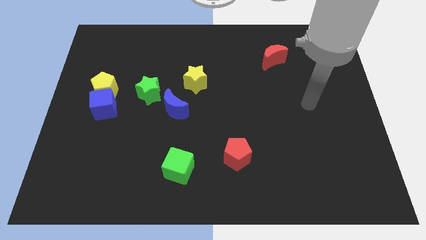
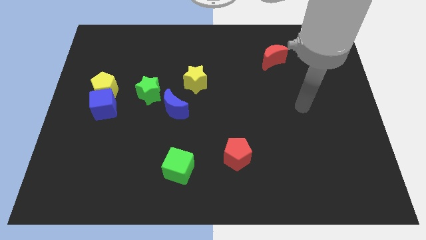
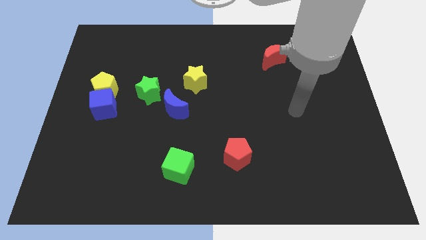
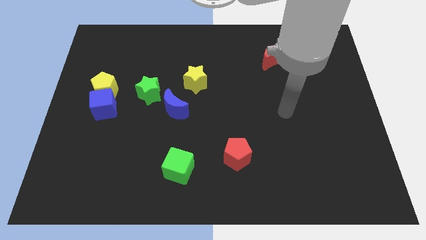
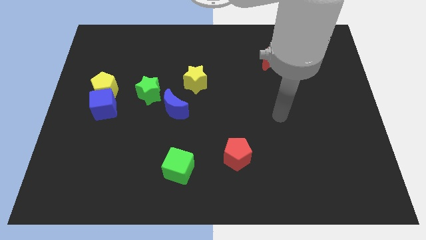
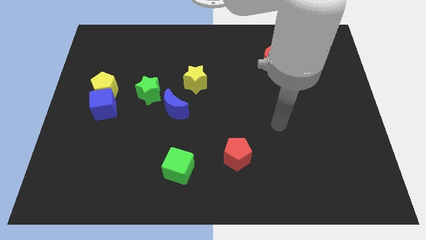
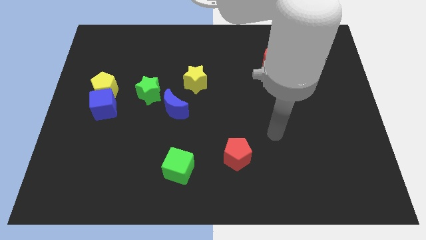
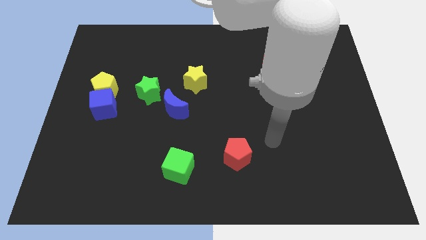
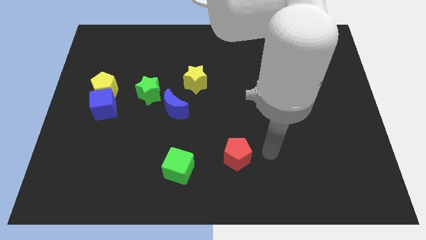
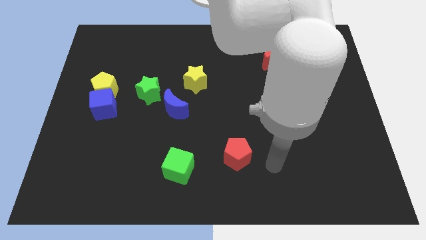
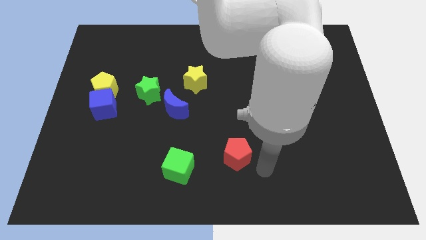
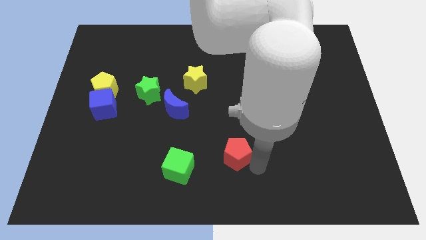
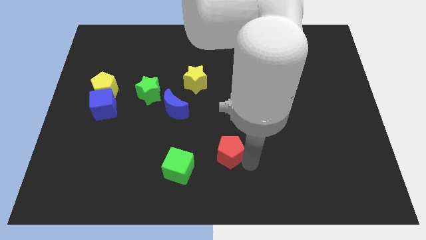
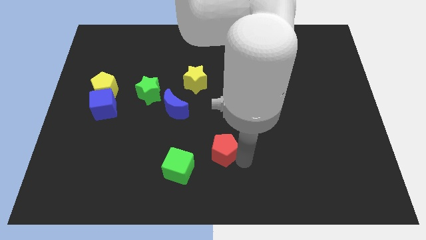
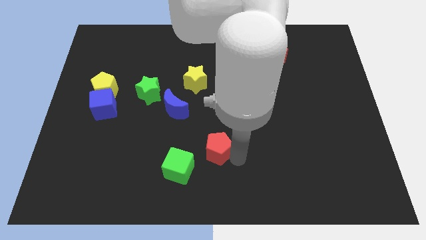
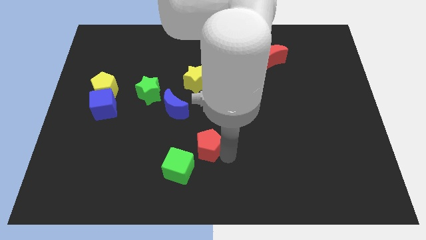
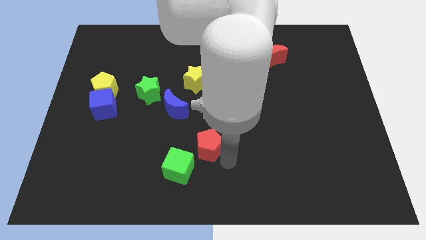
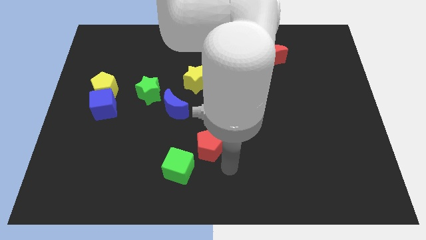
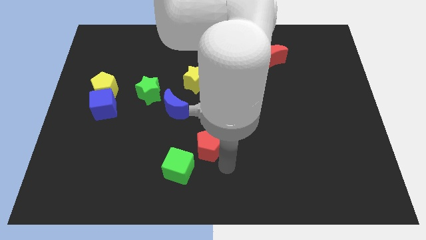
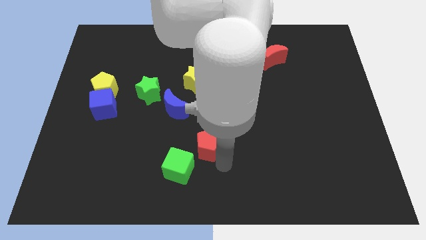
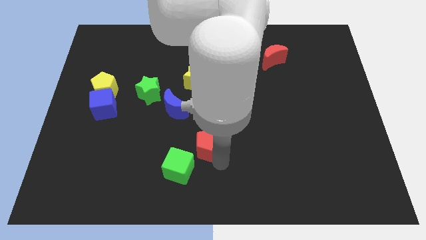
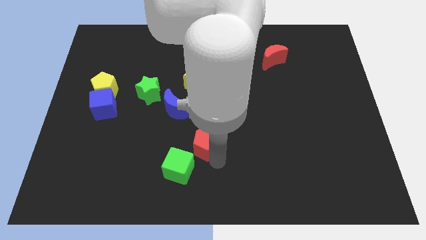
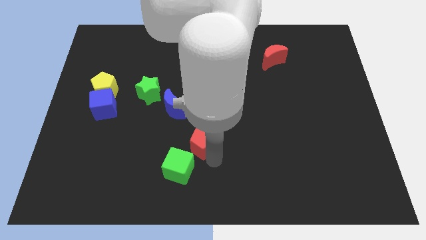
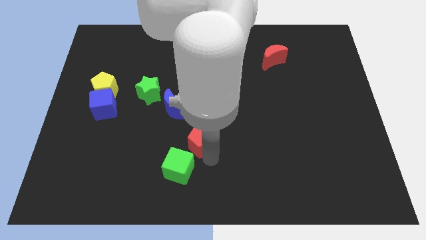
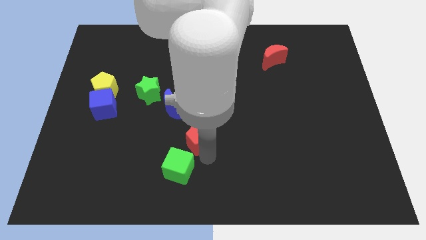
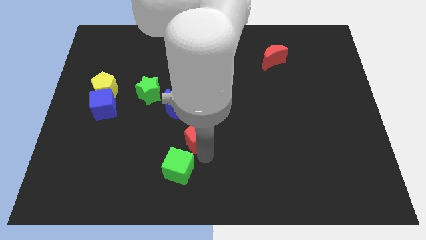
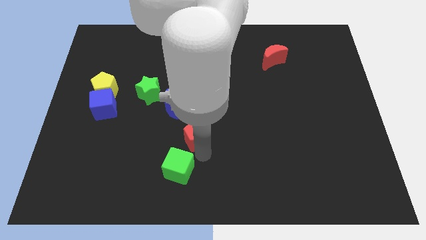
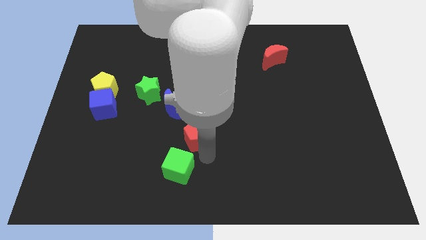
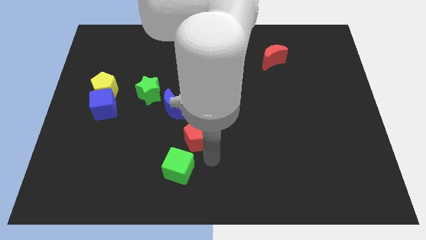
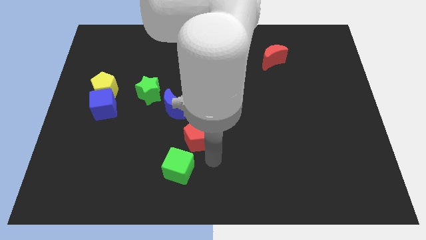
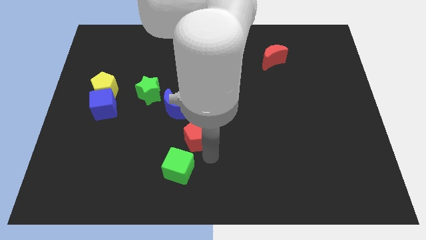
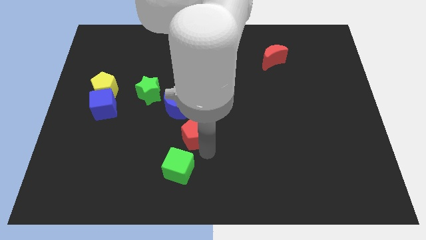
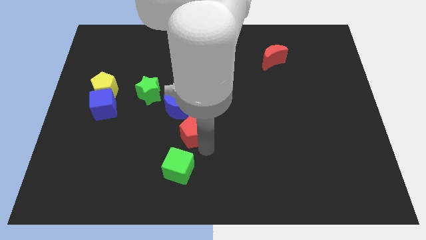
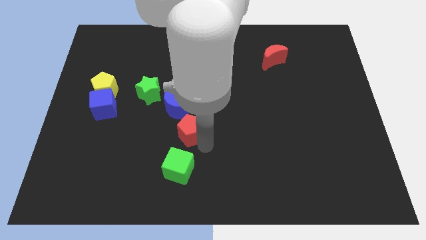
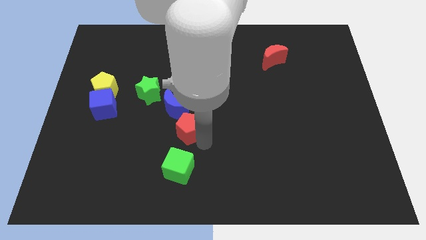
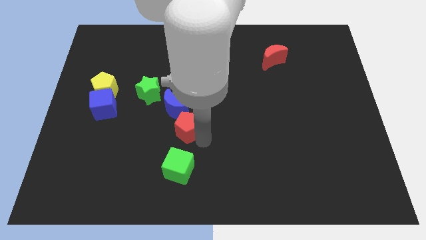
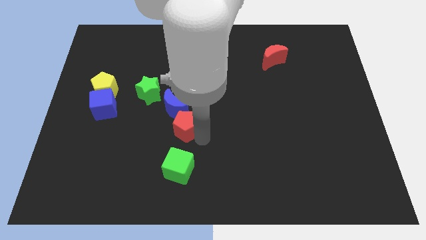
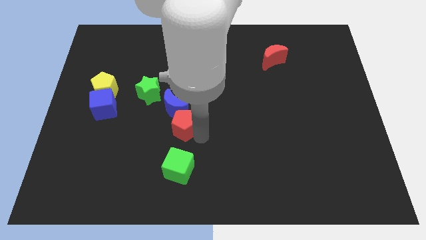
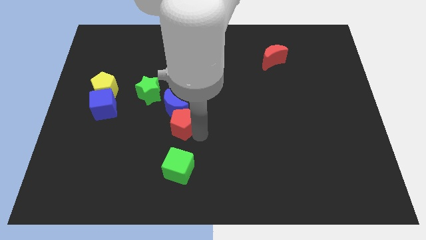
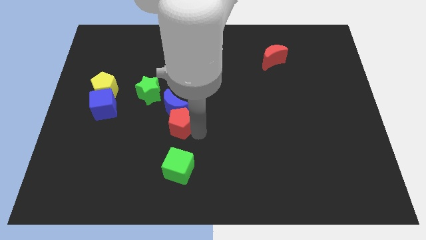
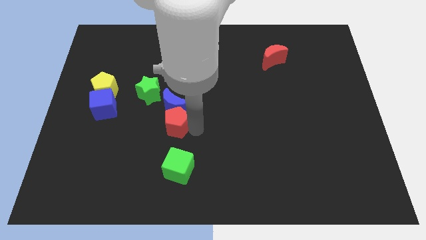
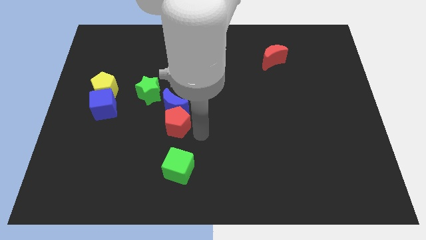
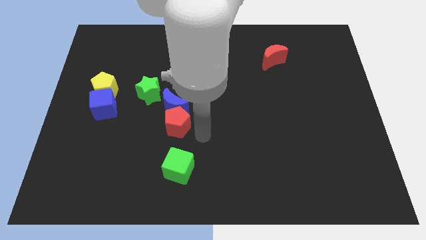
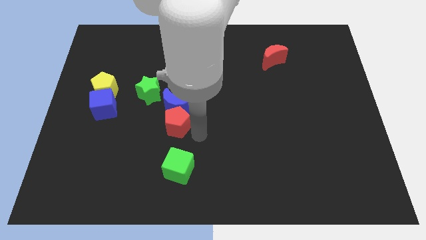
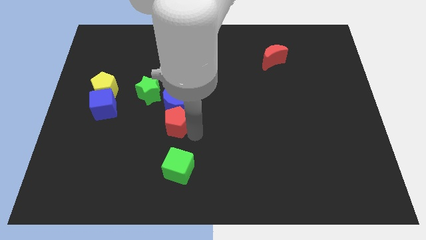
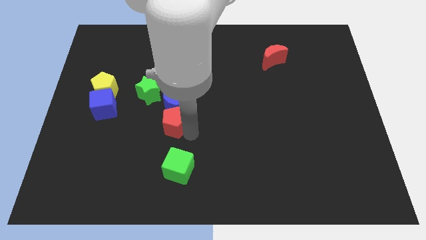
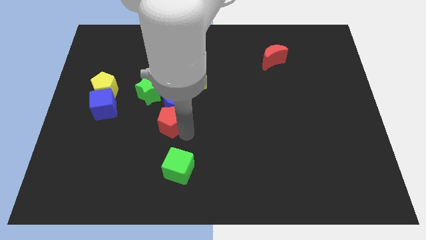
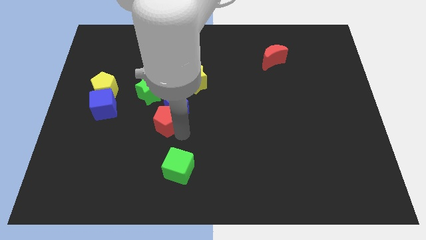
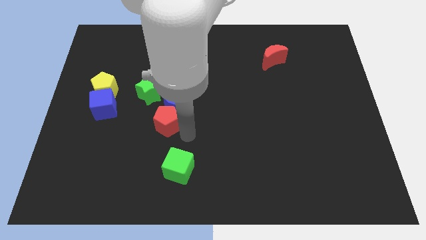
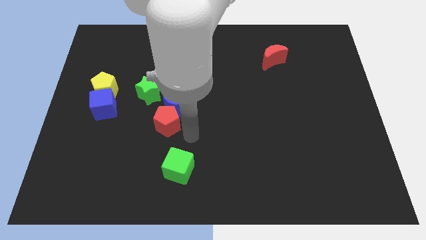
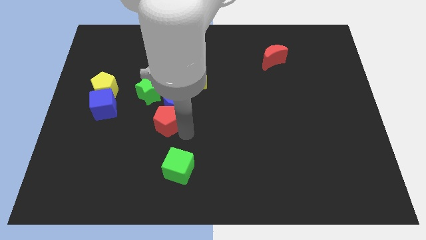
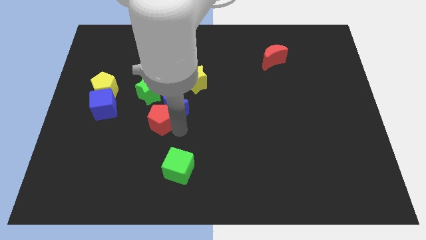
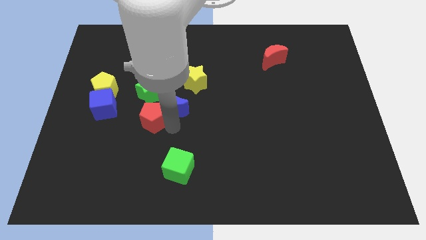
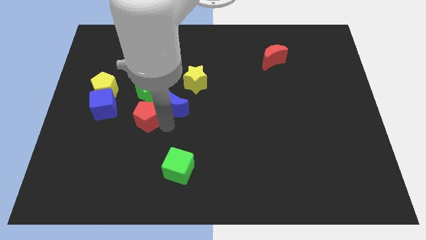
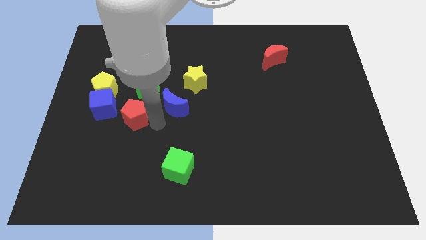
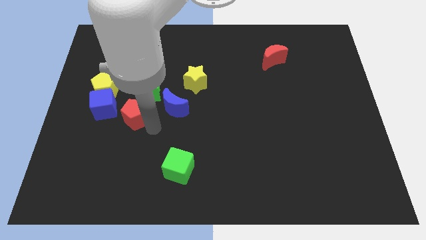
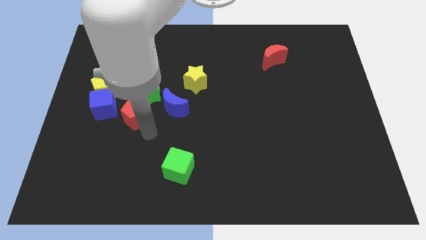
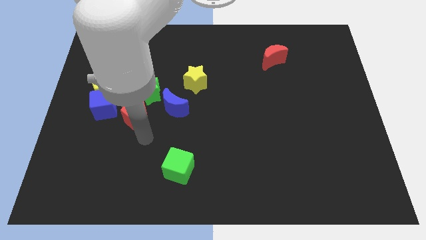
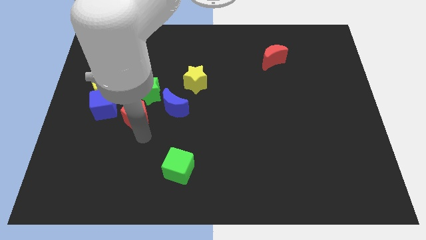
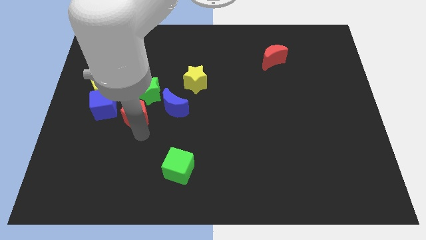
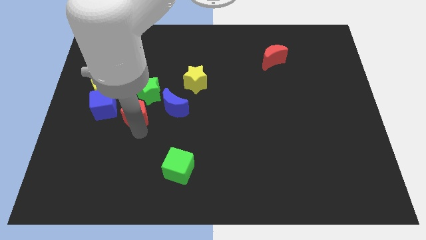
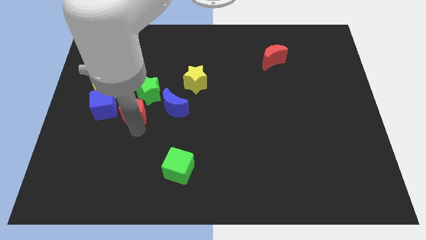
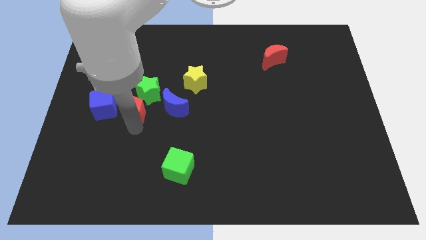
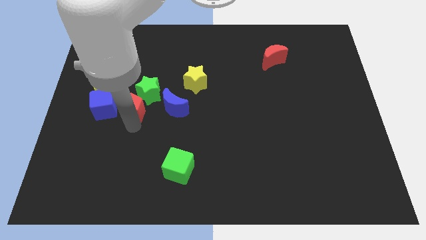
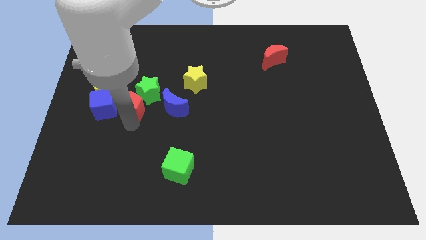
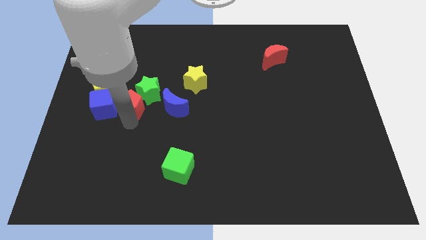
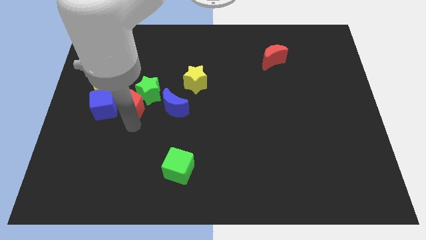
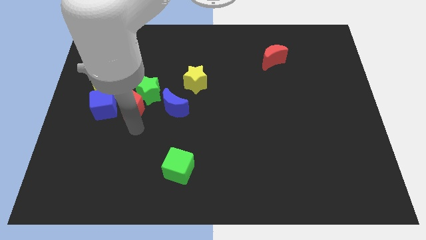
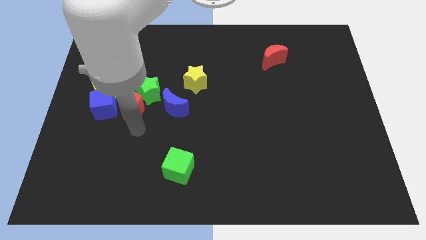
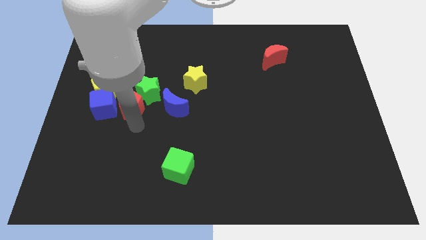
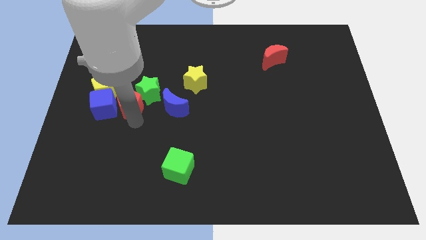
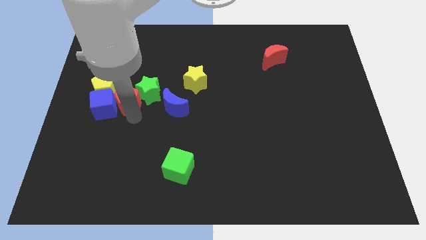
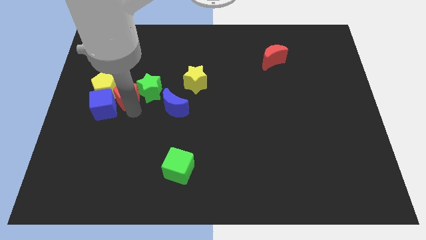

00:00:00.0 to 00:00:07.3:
put the red pentagon to the yellow pentagon
